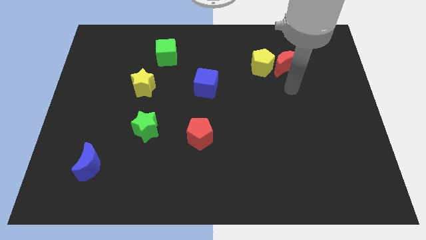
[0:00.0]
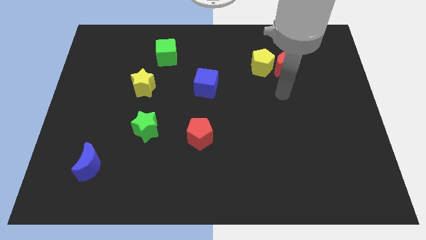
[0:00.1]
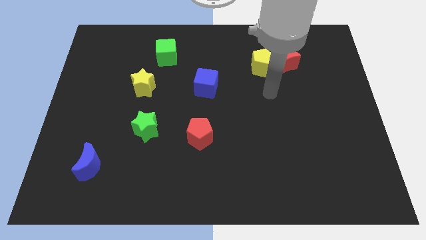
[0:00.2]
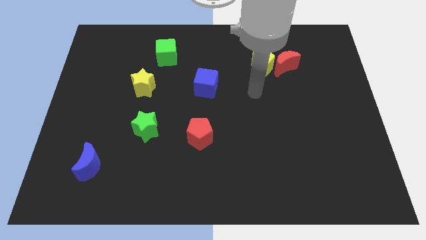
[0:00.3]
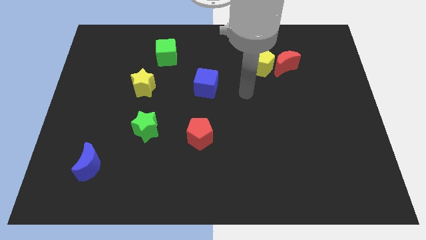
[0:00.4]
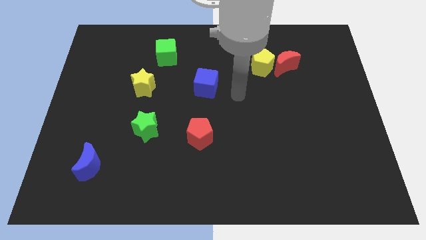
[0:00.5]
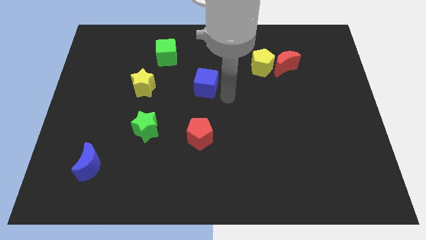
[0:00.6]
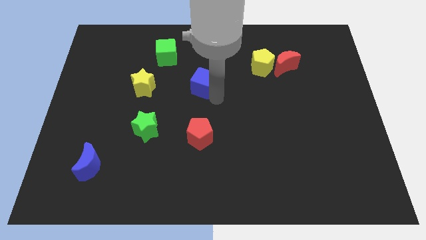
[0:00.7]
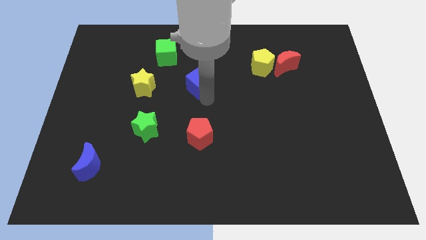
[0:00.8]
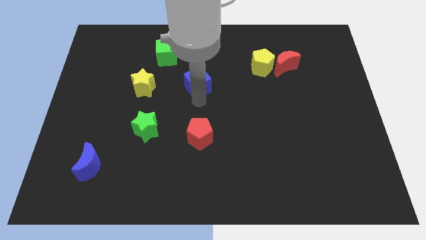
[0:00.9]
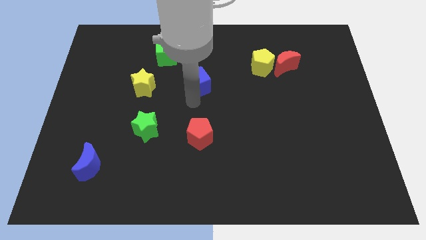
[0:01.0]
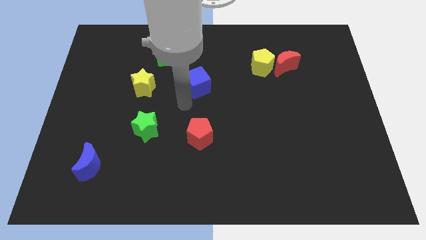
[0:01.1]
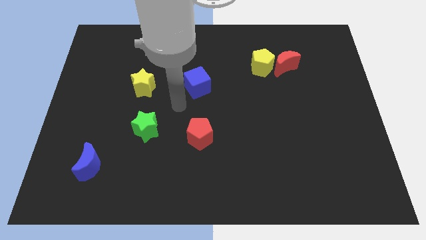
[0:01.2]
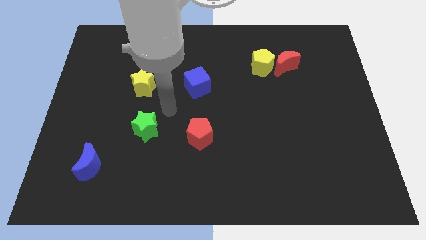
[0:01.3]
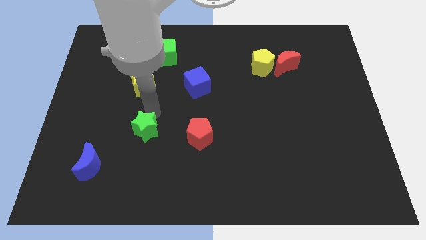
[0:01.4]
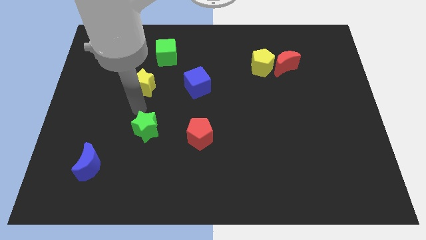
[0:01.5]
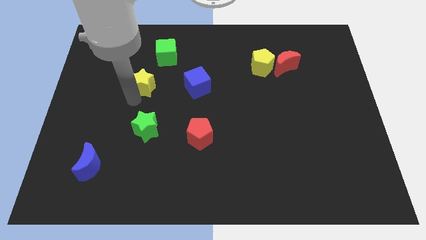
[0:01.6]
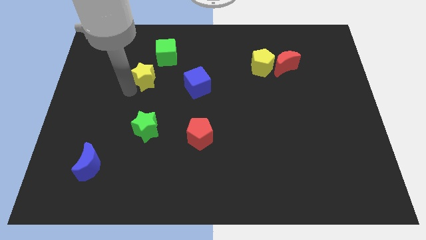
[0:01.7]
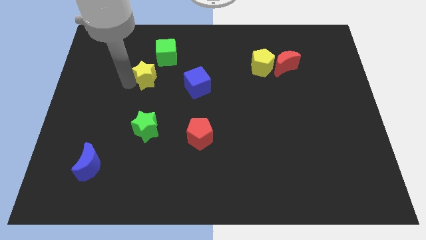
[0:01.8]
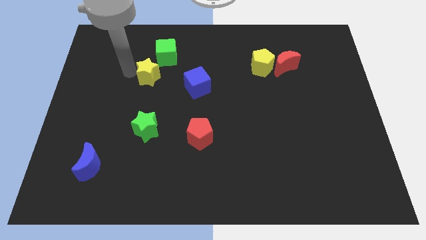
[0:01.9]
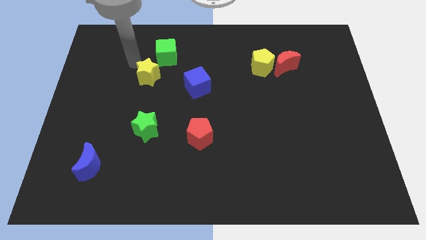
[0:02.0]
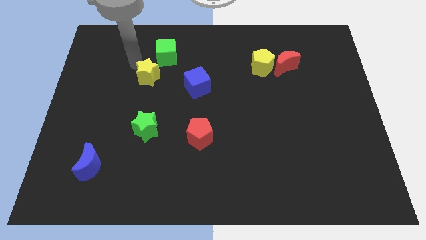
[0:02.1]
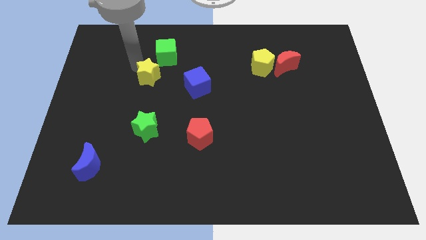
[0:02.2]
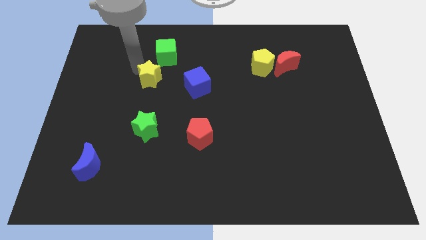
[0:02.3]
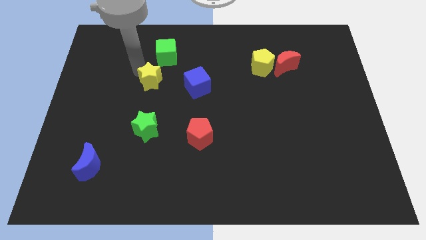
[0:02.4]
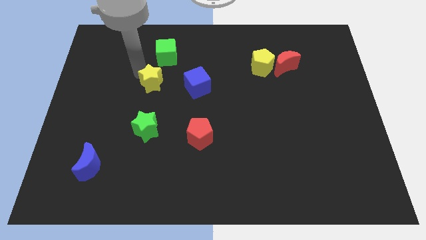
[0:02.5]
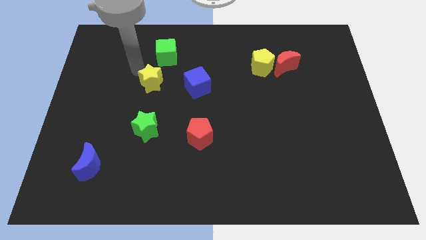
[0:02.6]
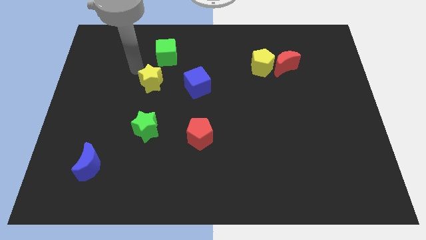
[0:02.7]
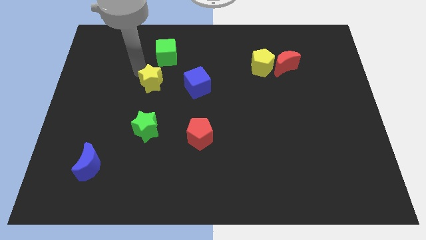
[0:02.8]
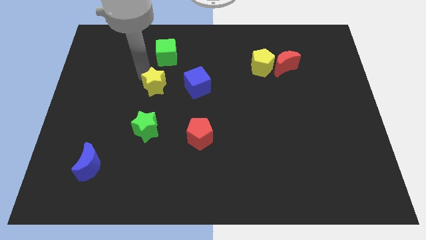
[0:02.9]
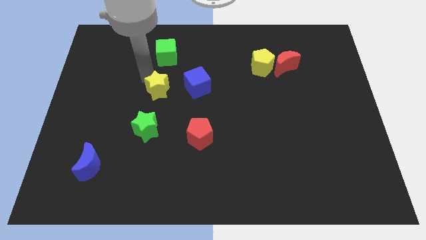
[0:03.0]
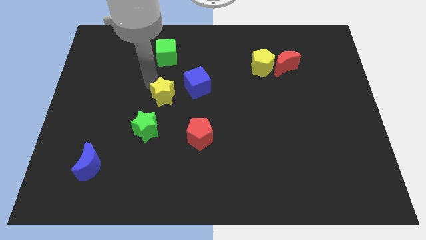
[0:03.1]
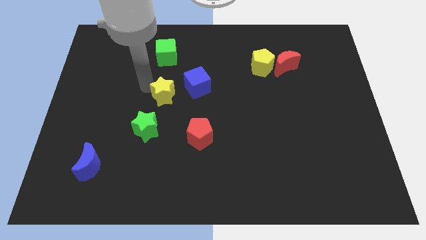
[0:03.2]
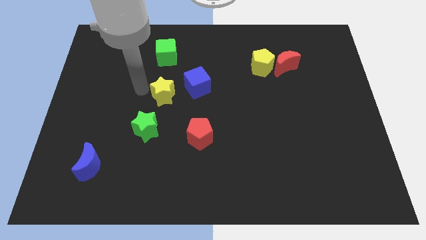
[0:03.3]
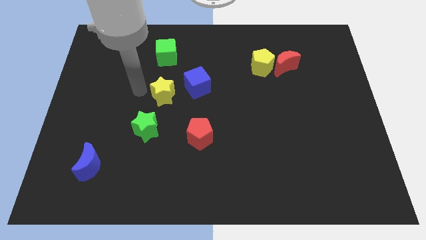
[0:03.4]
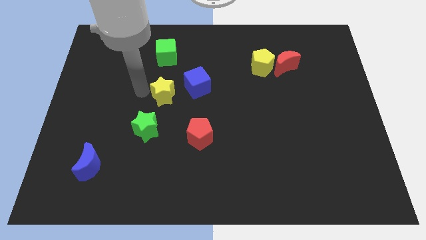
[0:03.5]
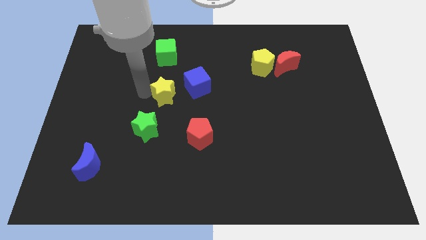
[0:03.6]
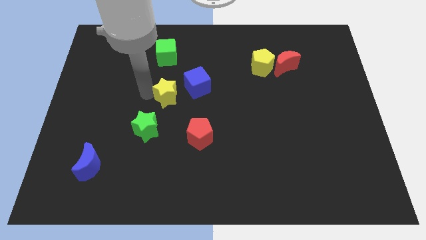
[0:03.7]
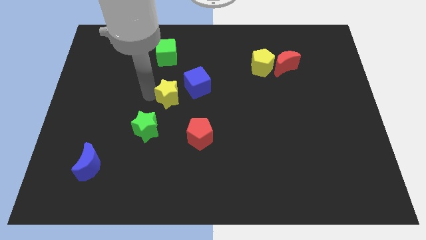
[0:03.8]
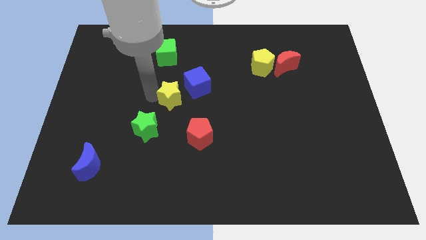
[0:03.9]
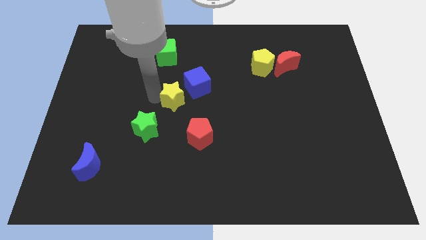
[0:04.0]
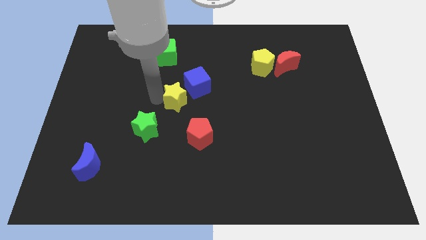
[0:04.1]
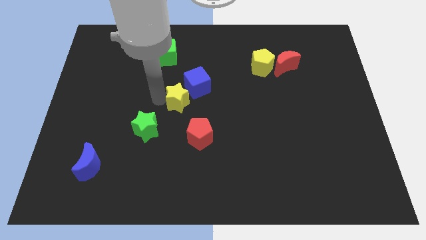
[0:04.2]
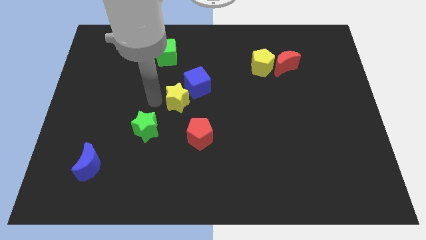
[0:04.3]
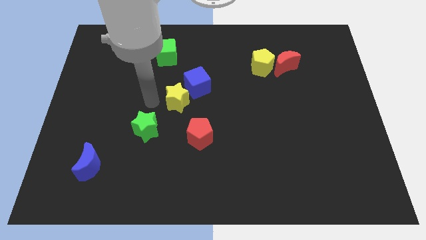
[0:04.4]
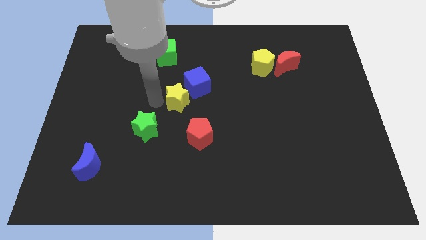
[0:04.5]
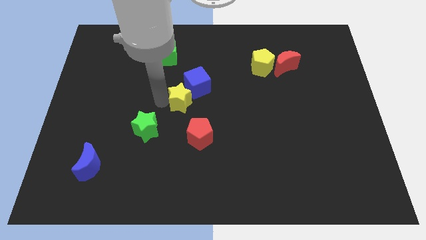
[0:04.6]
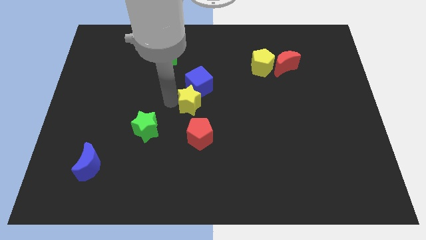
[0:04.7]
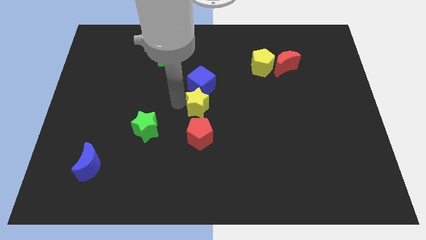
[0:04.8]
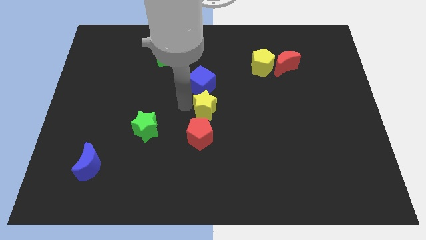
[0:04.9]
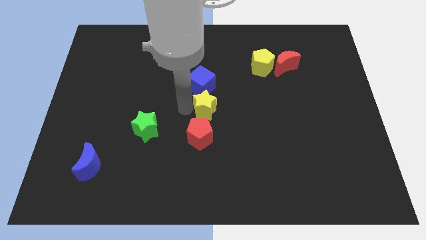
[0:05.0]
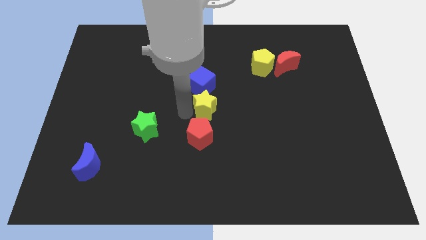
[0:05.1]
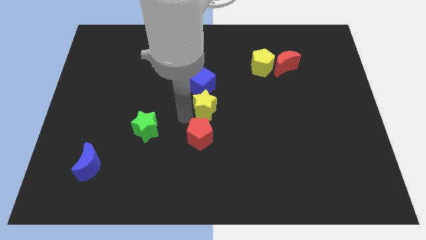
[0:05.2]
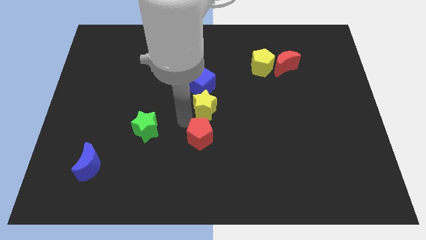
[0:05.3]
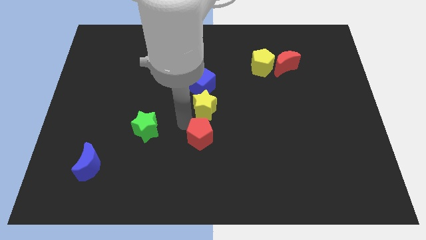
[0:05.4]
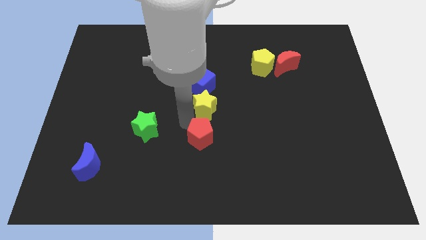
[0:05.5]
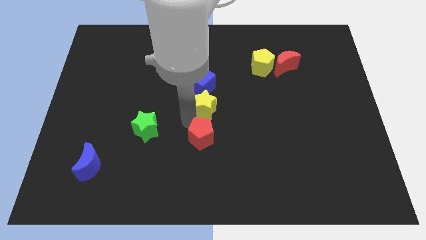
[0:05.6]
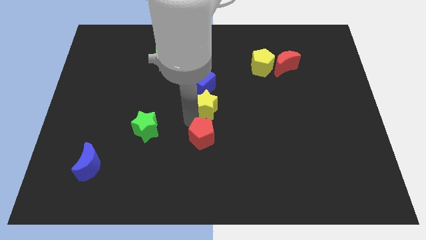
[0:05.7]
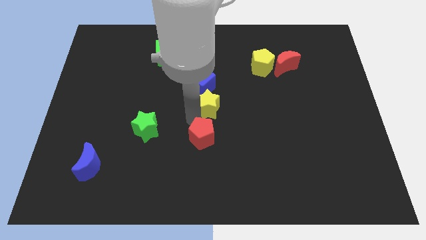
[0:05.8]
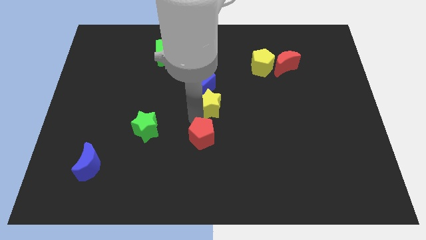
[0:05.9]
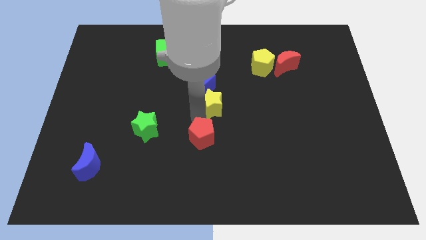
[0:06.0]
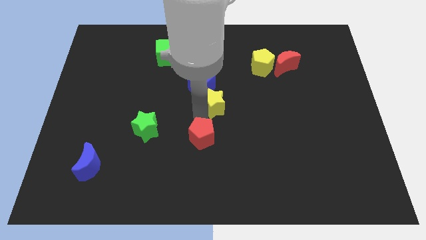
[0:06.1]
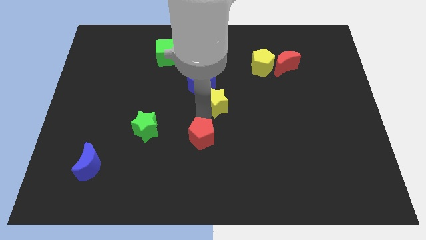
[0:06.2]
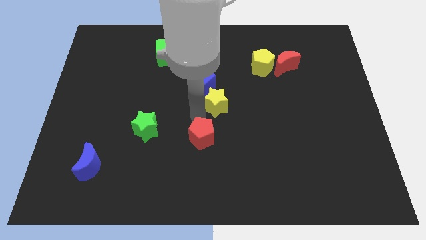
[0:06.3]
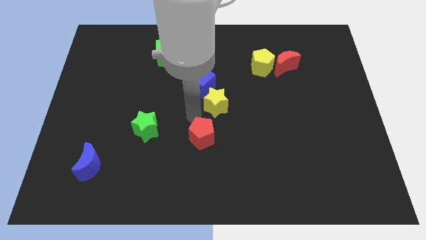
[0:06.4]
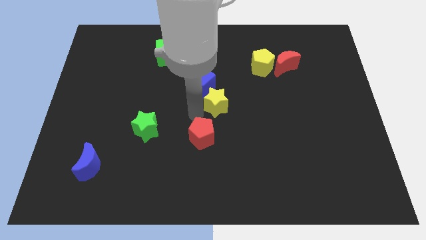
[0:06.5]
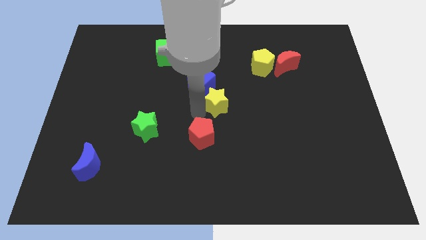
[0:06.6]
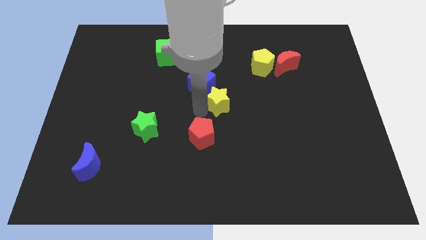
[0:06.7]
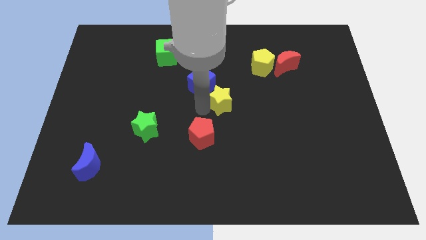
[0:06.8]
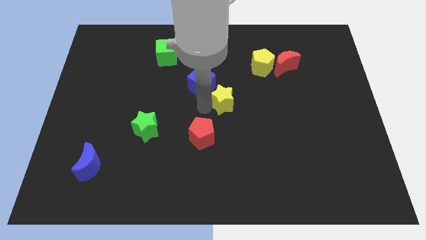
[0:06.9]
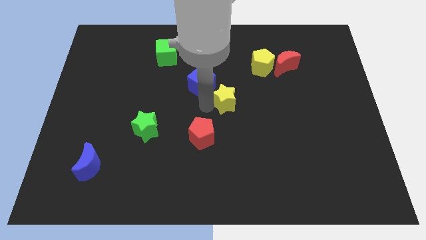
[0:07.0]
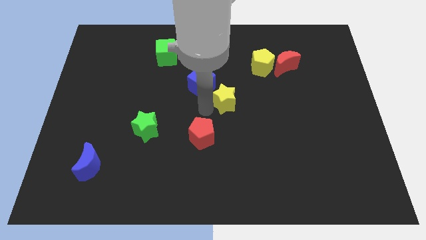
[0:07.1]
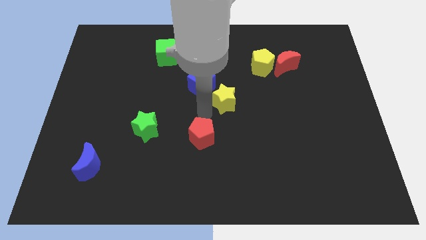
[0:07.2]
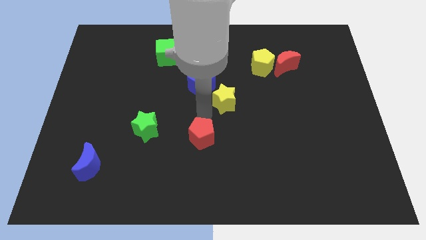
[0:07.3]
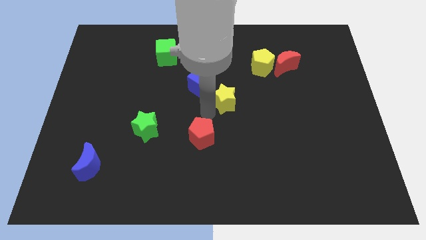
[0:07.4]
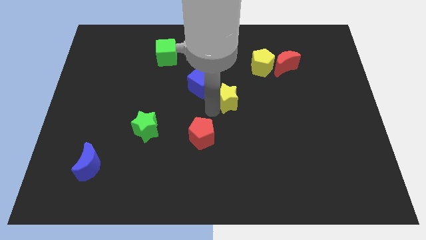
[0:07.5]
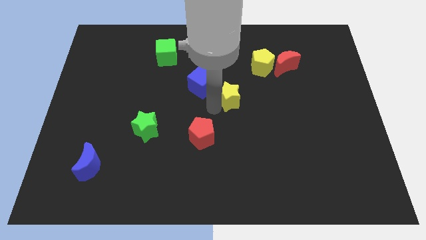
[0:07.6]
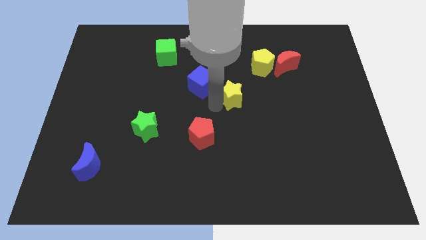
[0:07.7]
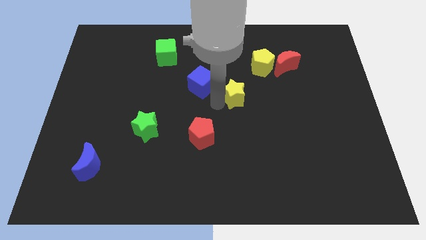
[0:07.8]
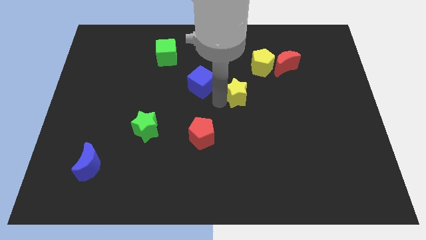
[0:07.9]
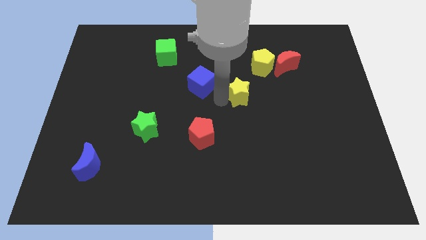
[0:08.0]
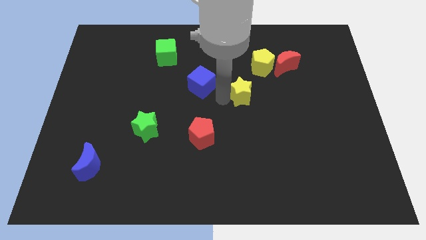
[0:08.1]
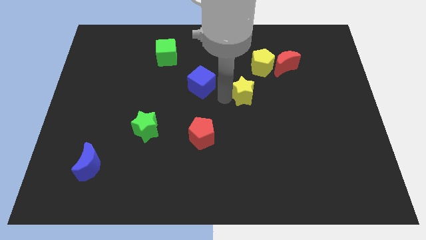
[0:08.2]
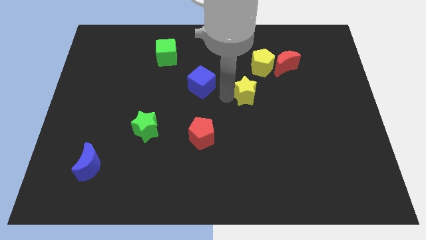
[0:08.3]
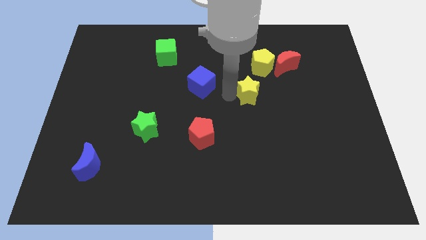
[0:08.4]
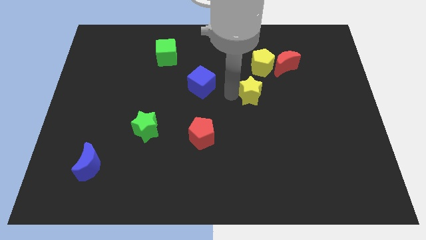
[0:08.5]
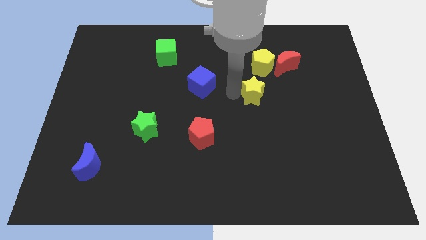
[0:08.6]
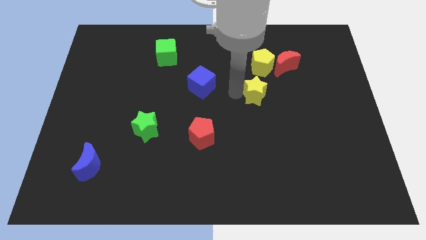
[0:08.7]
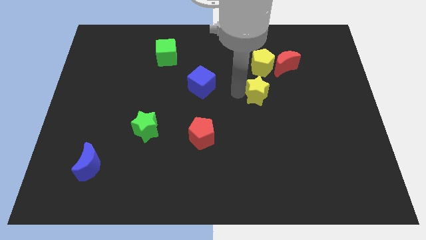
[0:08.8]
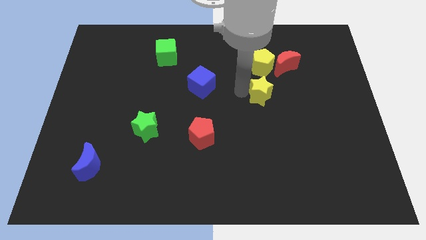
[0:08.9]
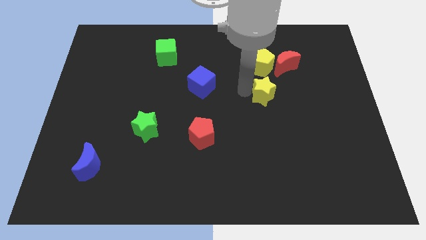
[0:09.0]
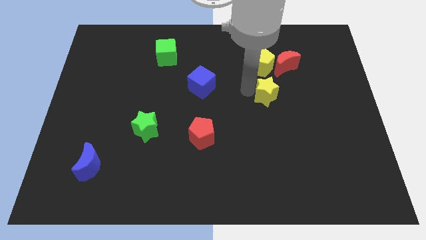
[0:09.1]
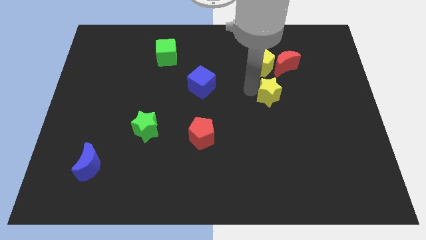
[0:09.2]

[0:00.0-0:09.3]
move the yellow star below the red moon
